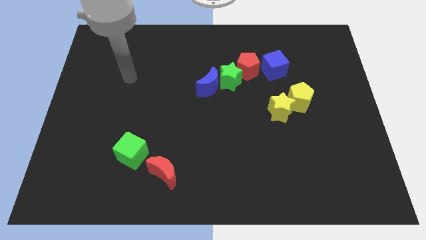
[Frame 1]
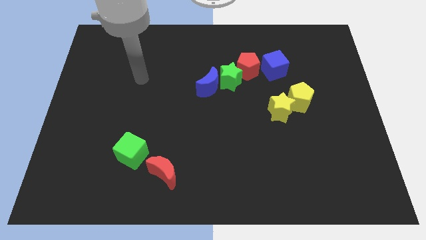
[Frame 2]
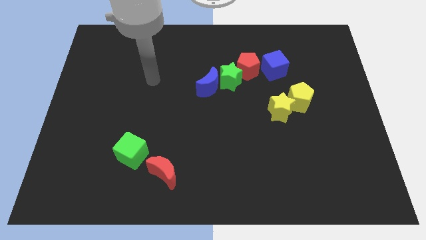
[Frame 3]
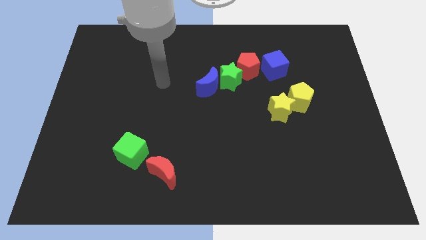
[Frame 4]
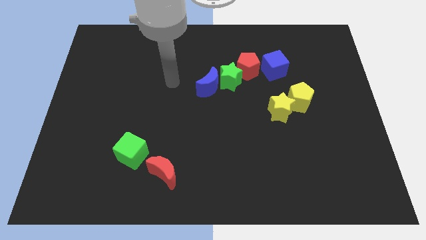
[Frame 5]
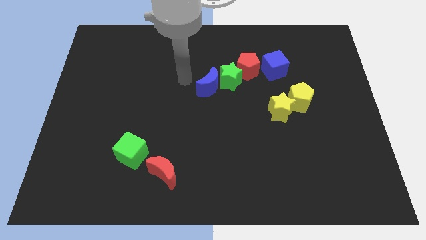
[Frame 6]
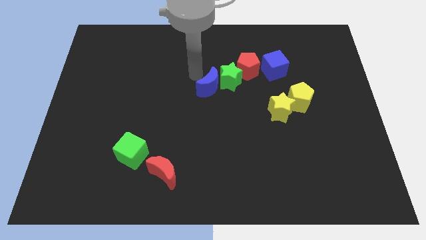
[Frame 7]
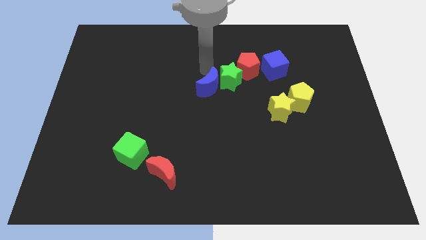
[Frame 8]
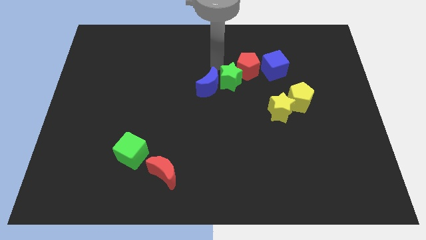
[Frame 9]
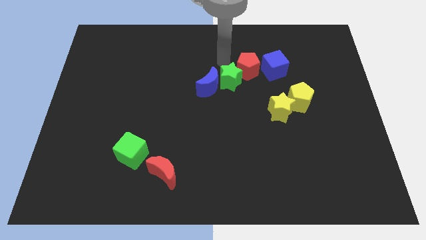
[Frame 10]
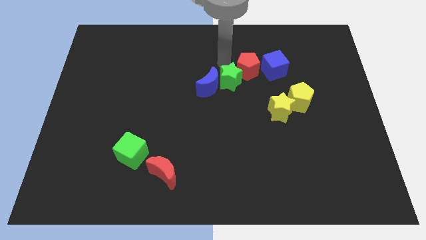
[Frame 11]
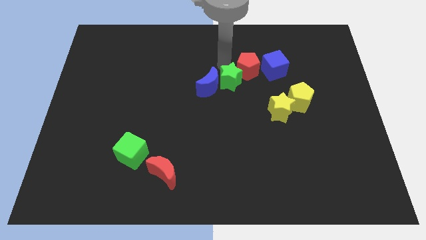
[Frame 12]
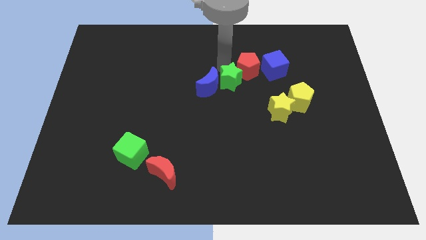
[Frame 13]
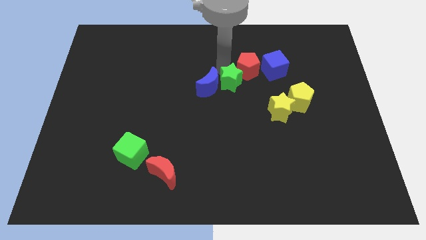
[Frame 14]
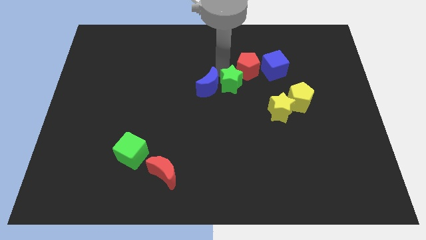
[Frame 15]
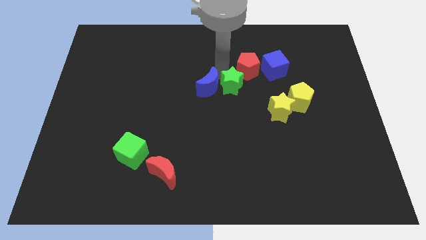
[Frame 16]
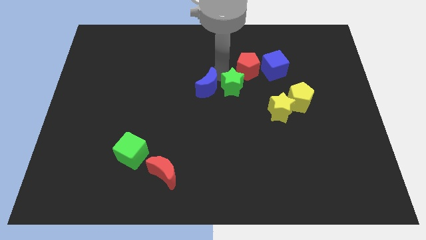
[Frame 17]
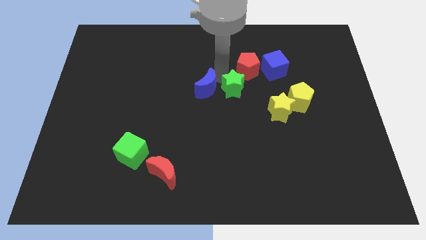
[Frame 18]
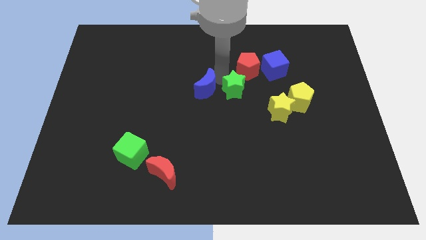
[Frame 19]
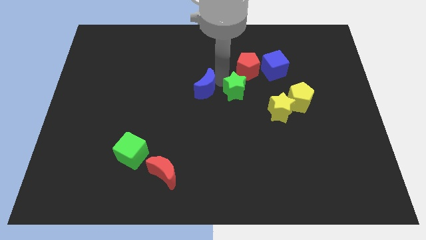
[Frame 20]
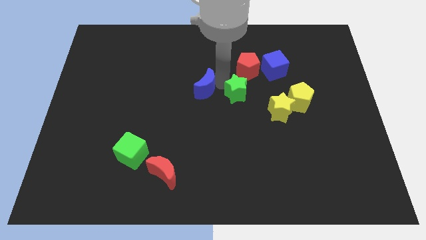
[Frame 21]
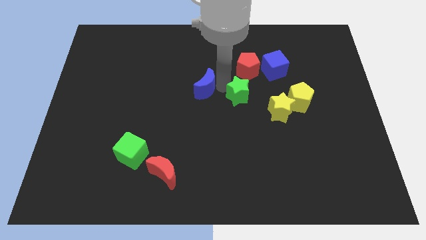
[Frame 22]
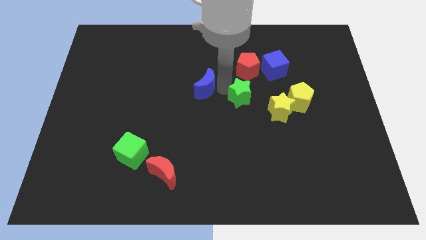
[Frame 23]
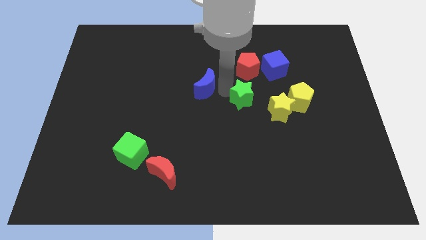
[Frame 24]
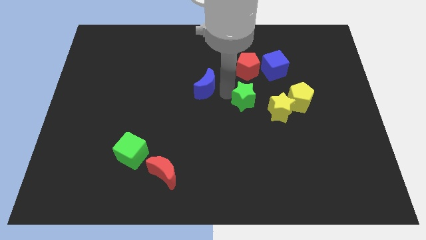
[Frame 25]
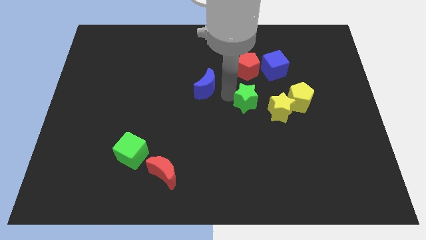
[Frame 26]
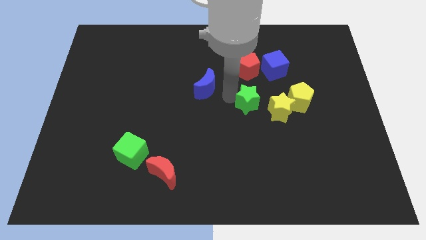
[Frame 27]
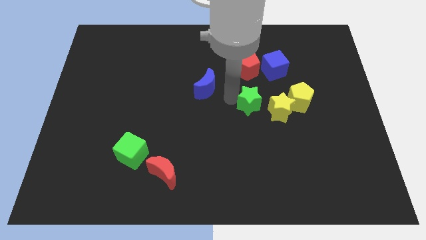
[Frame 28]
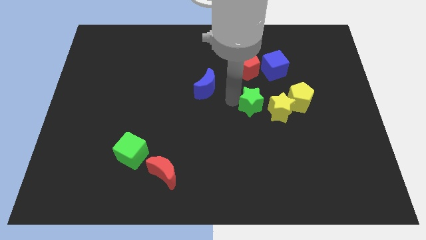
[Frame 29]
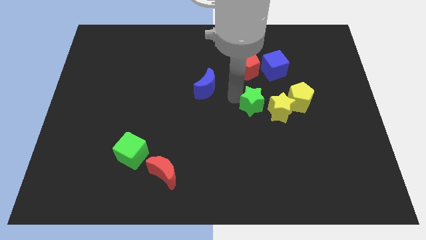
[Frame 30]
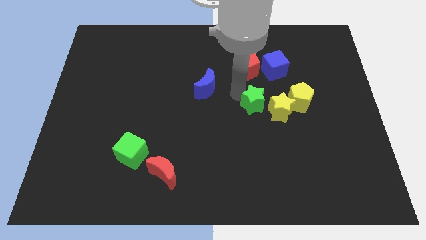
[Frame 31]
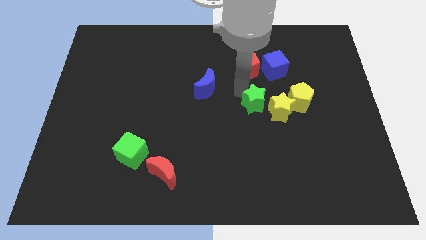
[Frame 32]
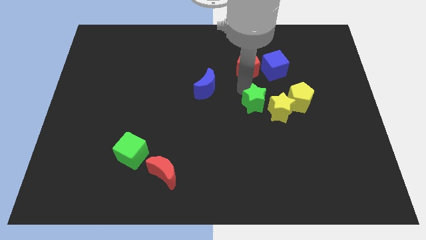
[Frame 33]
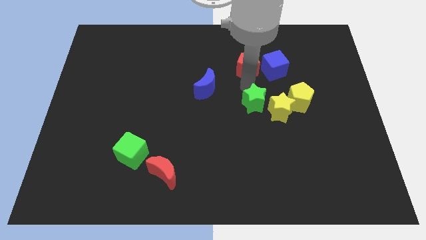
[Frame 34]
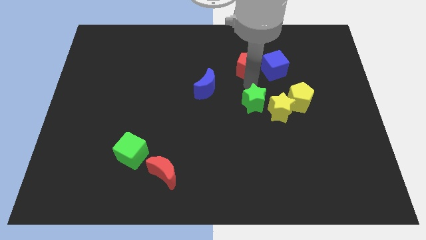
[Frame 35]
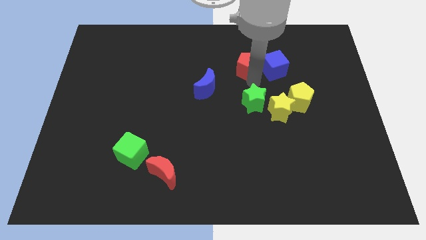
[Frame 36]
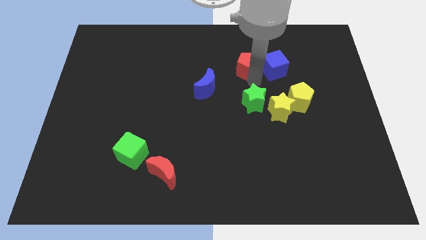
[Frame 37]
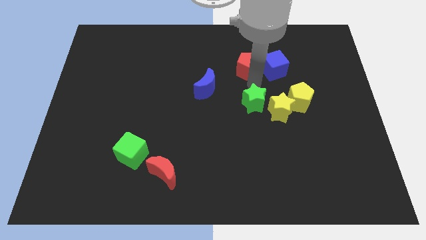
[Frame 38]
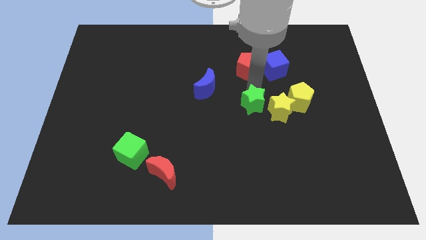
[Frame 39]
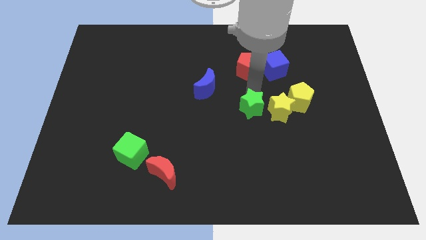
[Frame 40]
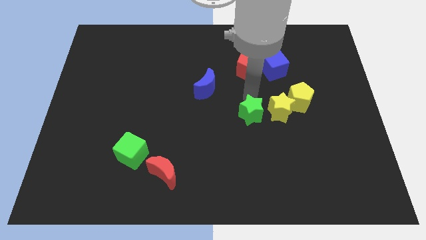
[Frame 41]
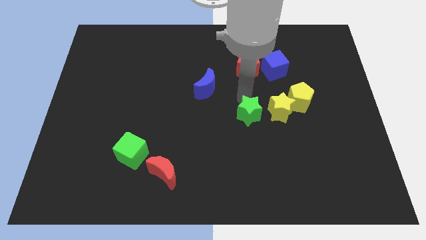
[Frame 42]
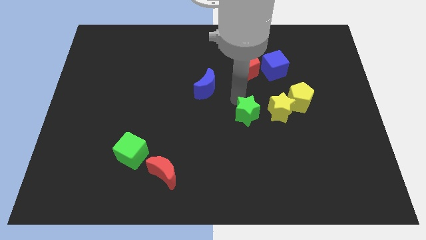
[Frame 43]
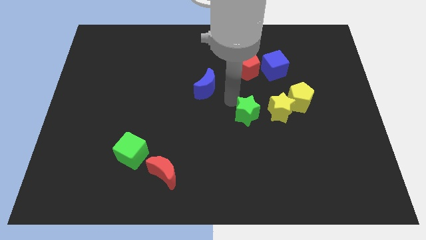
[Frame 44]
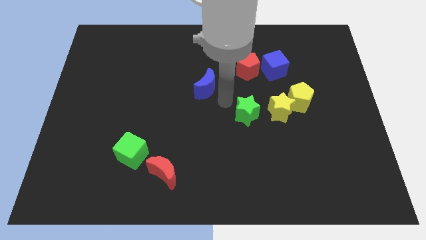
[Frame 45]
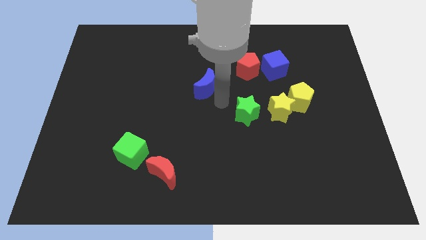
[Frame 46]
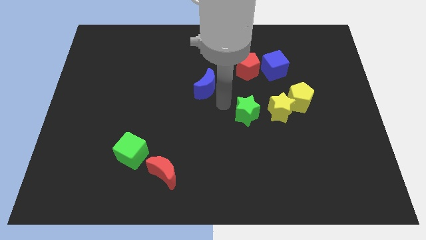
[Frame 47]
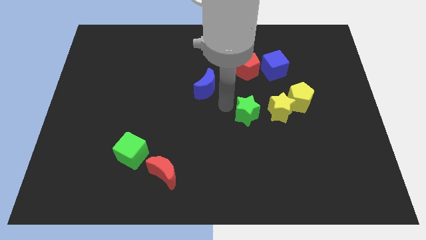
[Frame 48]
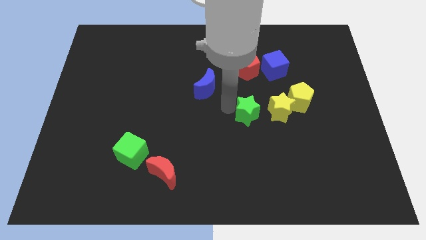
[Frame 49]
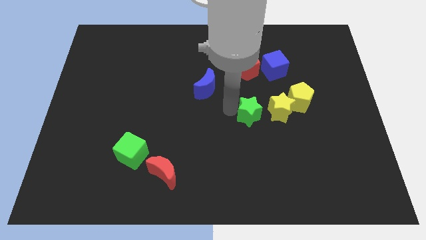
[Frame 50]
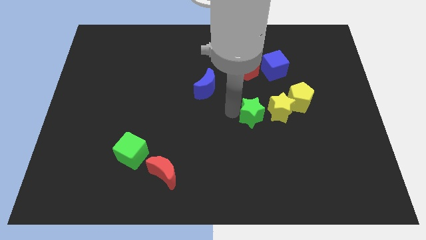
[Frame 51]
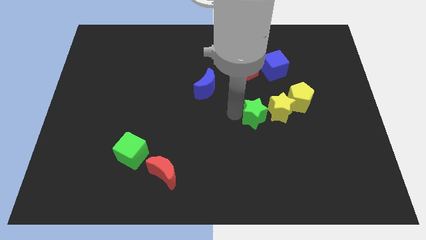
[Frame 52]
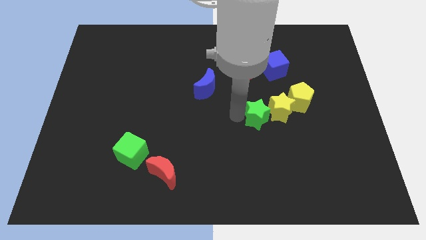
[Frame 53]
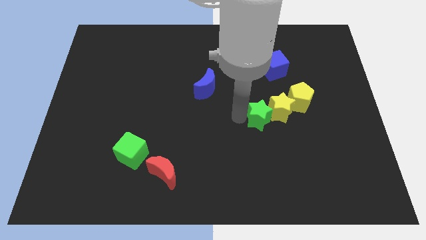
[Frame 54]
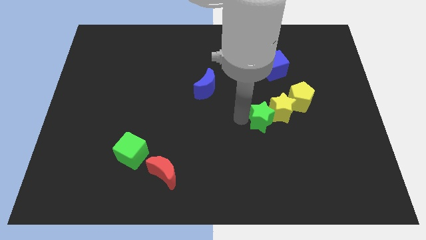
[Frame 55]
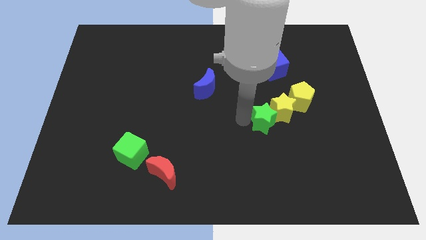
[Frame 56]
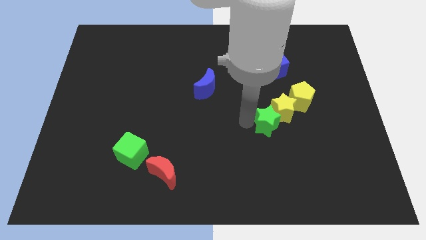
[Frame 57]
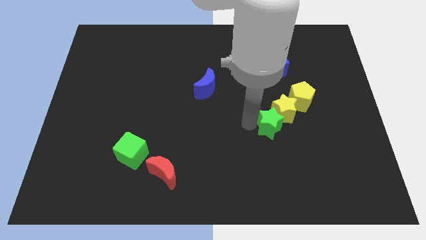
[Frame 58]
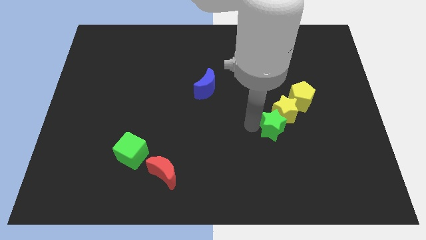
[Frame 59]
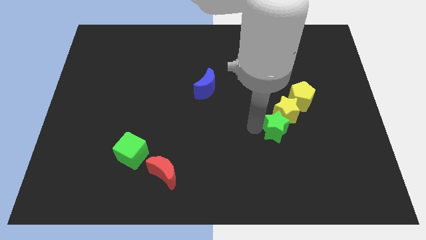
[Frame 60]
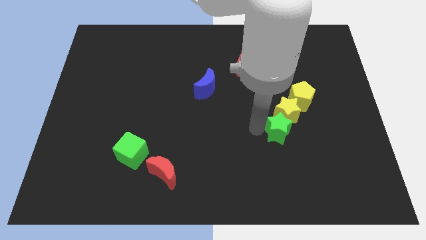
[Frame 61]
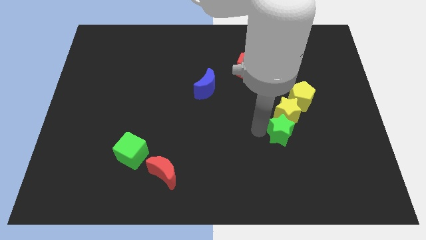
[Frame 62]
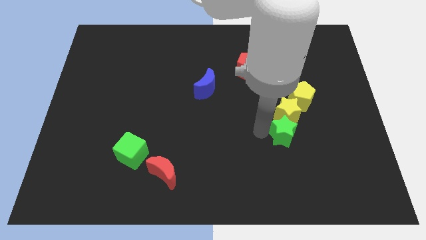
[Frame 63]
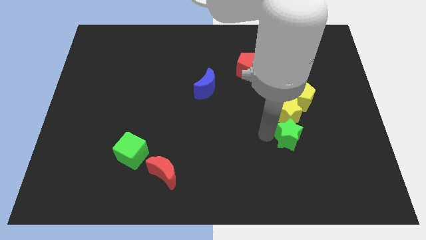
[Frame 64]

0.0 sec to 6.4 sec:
slide the green star downwards and then right

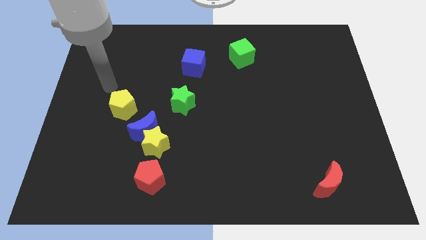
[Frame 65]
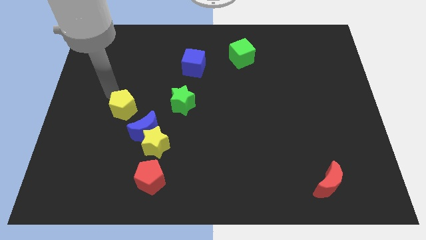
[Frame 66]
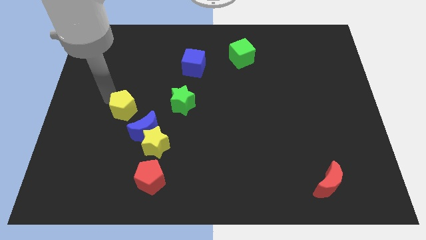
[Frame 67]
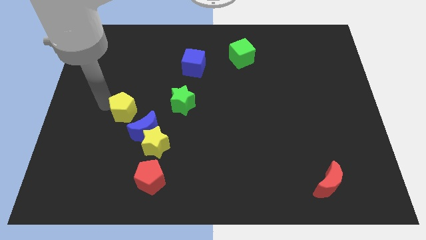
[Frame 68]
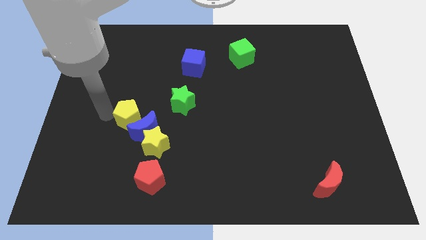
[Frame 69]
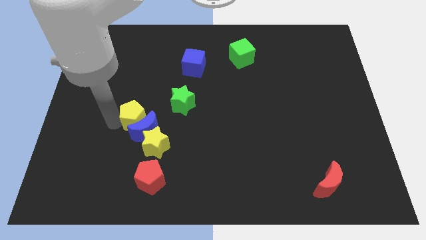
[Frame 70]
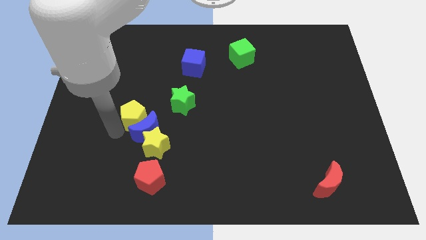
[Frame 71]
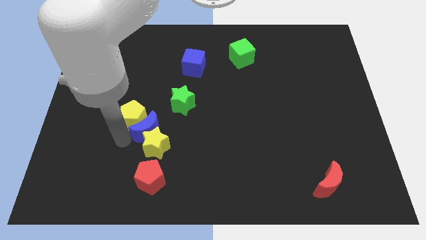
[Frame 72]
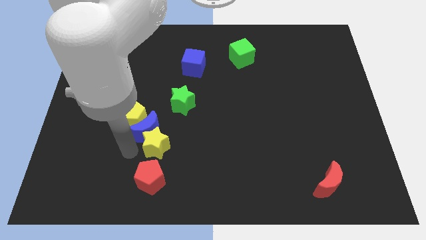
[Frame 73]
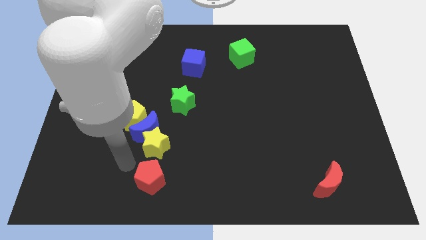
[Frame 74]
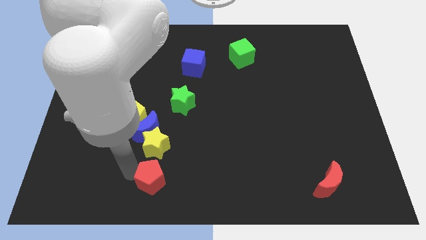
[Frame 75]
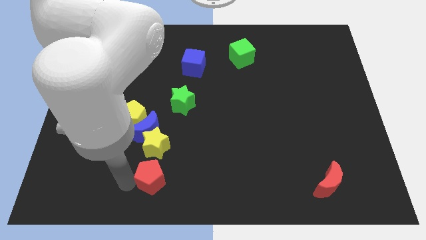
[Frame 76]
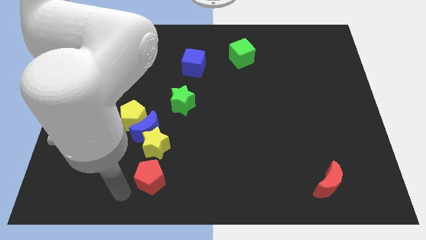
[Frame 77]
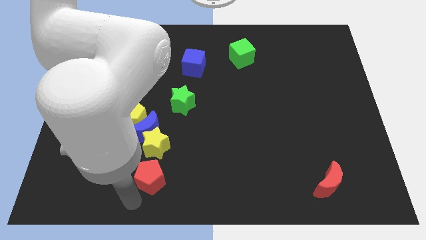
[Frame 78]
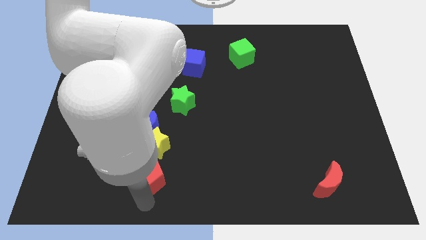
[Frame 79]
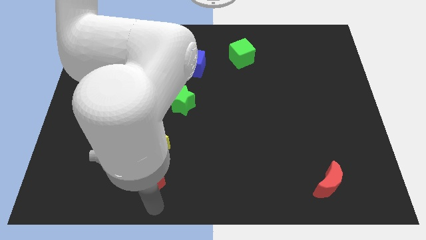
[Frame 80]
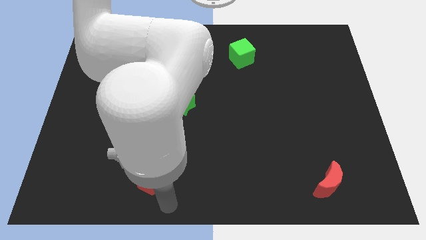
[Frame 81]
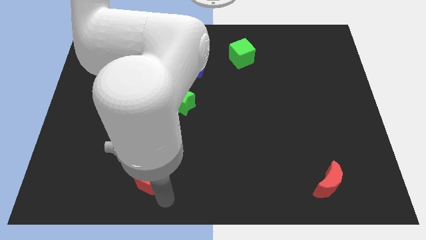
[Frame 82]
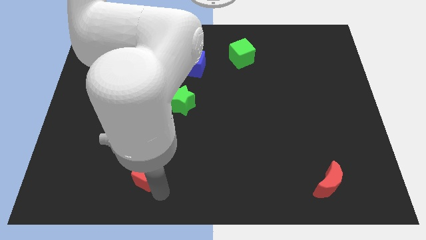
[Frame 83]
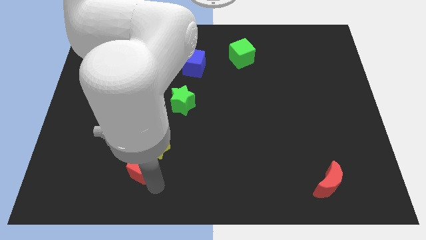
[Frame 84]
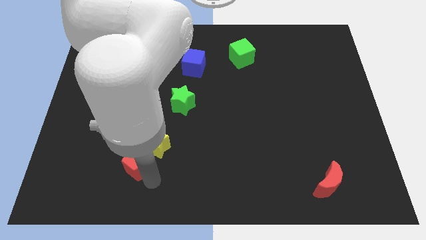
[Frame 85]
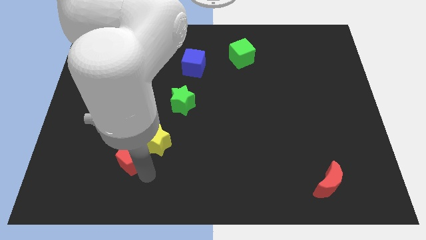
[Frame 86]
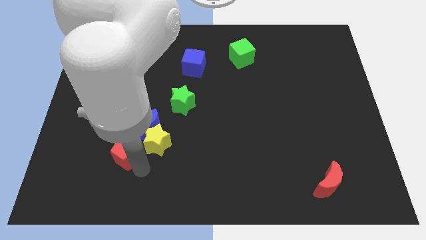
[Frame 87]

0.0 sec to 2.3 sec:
slightly push the red pentagon upwards and to the left
